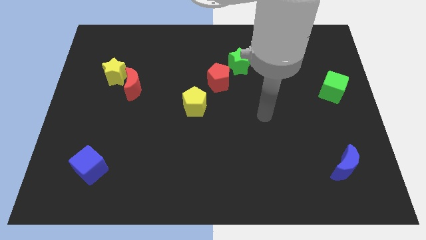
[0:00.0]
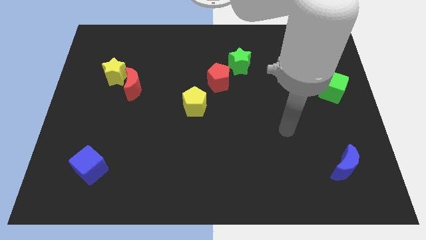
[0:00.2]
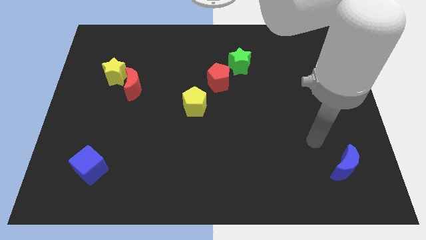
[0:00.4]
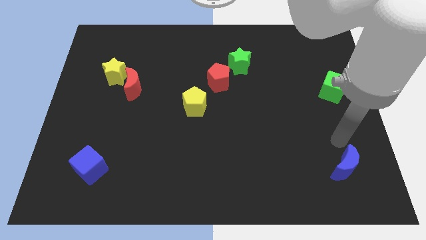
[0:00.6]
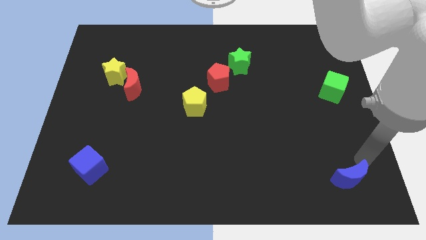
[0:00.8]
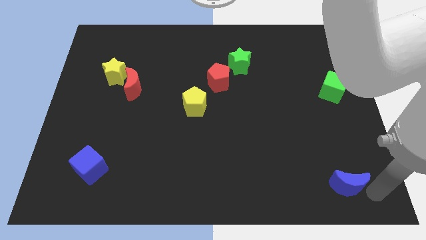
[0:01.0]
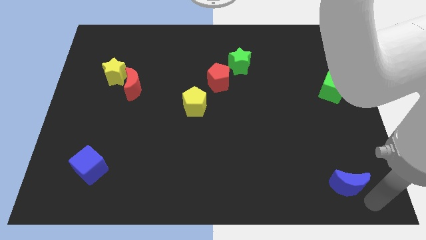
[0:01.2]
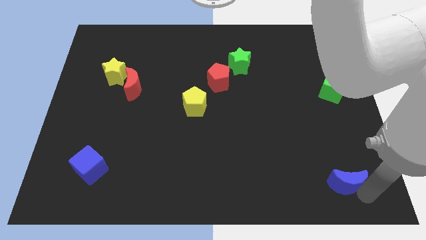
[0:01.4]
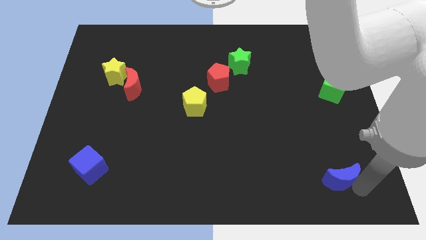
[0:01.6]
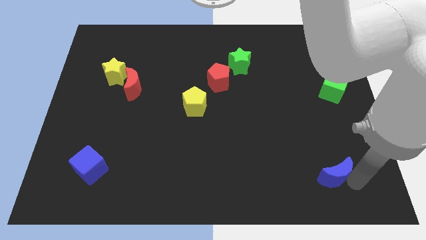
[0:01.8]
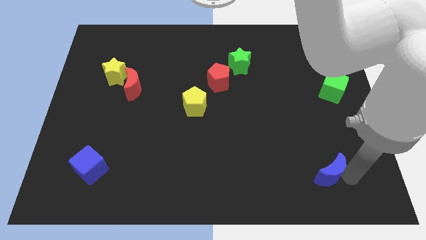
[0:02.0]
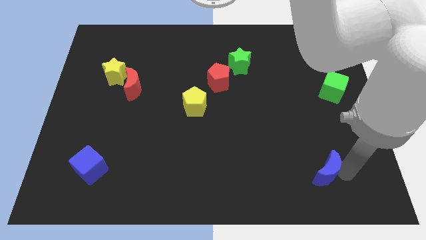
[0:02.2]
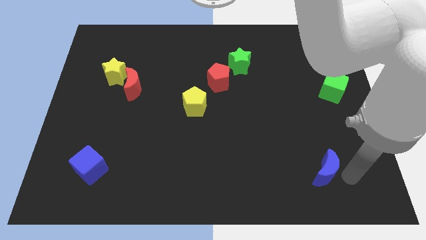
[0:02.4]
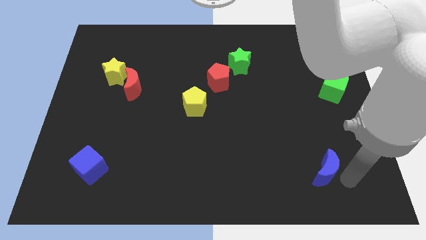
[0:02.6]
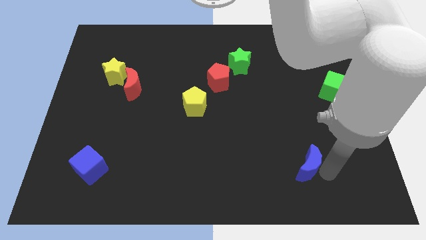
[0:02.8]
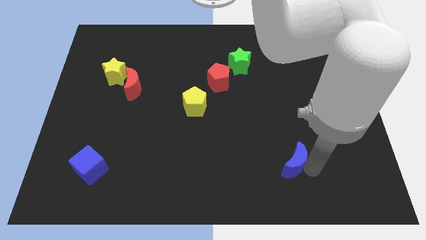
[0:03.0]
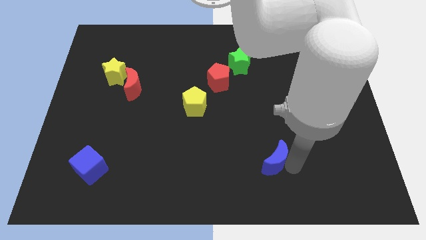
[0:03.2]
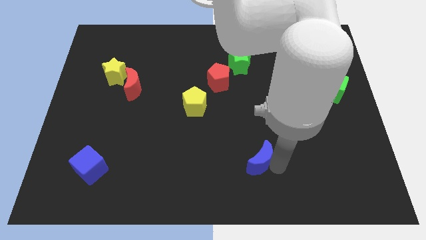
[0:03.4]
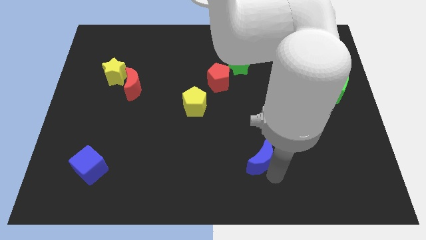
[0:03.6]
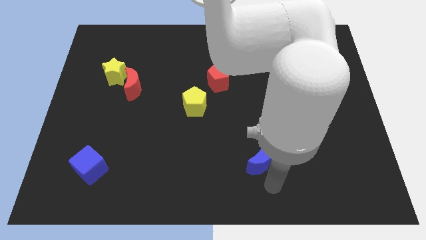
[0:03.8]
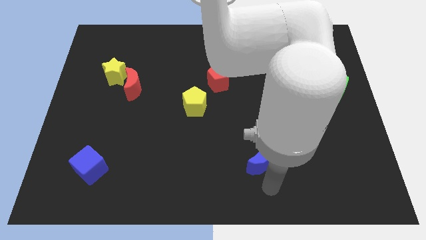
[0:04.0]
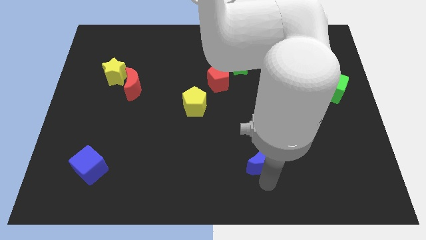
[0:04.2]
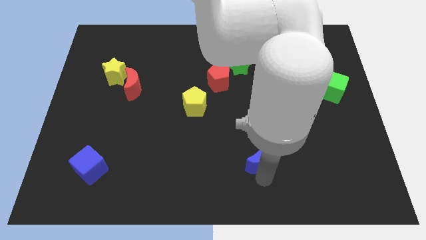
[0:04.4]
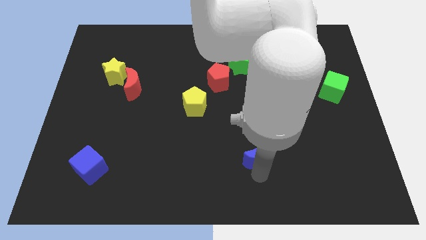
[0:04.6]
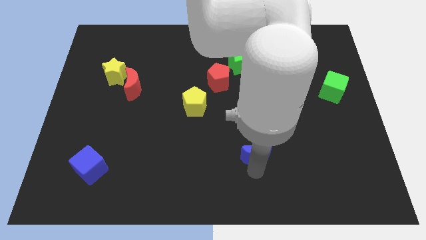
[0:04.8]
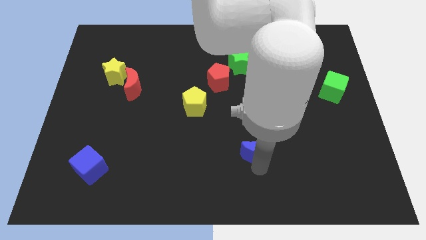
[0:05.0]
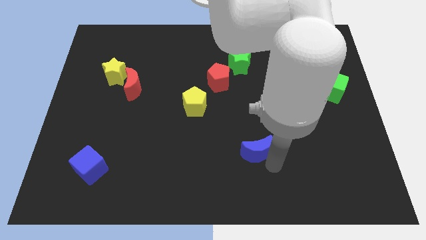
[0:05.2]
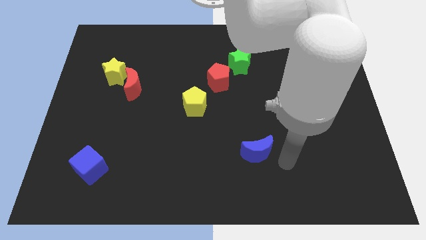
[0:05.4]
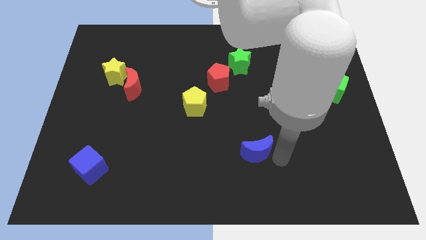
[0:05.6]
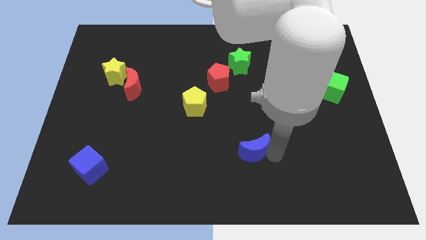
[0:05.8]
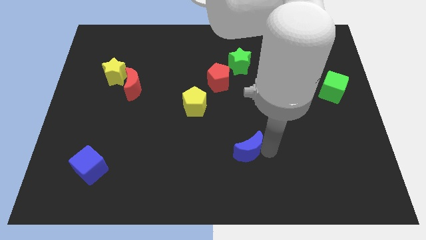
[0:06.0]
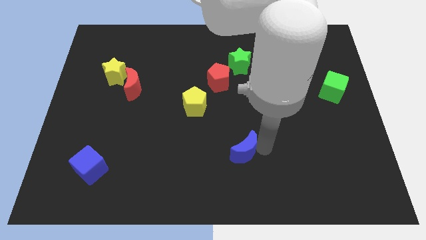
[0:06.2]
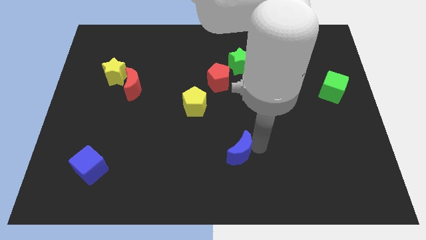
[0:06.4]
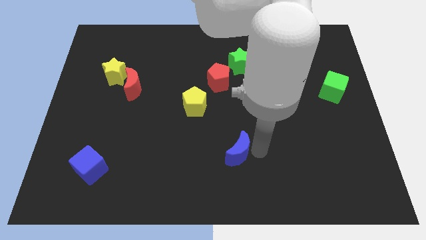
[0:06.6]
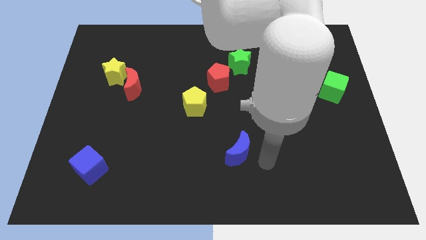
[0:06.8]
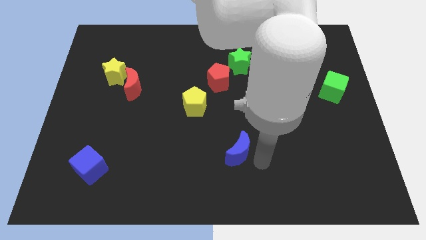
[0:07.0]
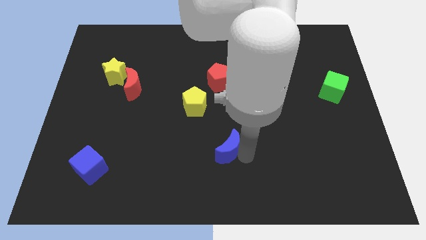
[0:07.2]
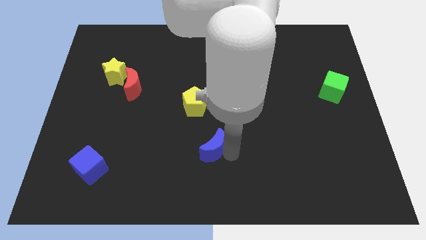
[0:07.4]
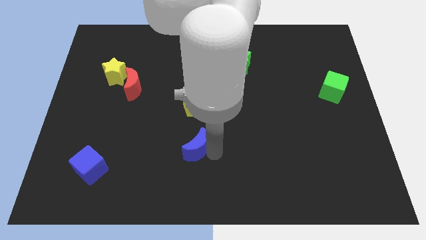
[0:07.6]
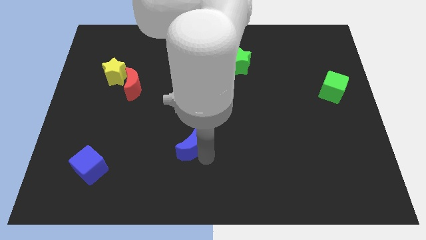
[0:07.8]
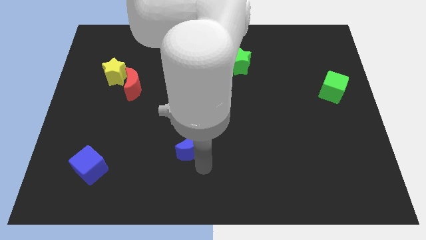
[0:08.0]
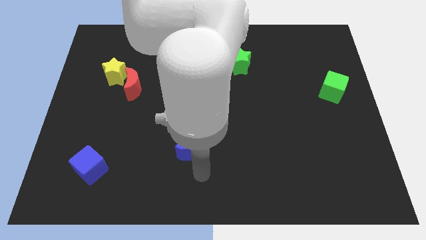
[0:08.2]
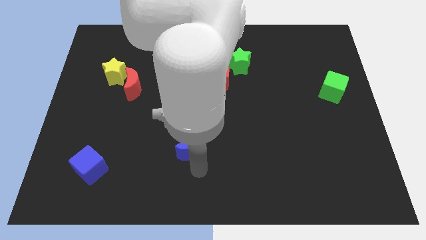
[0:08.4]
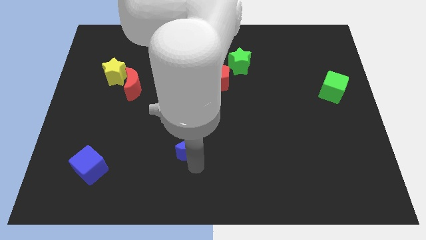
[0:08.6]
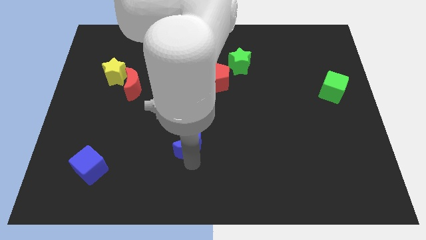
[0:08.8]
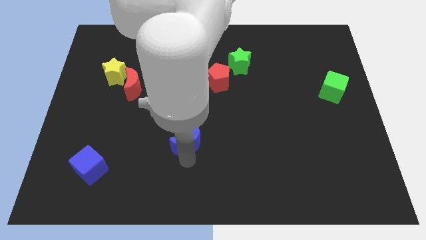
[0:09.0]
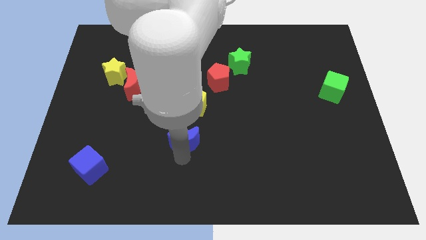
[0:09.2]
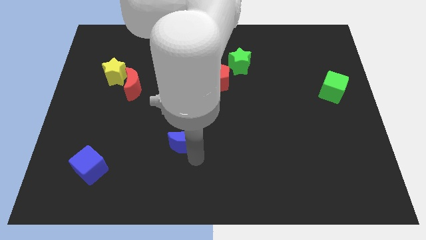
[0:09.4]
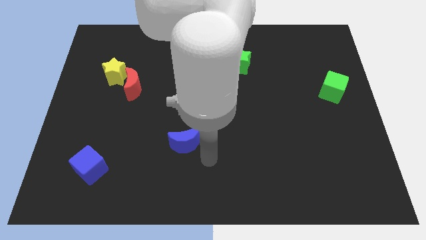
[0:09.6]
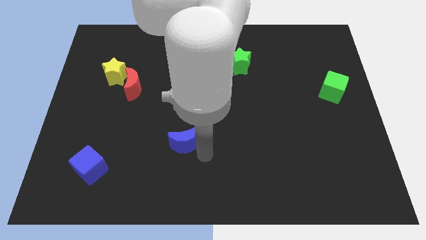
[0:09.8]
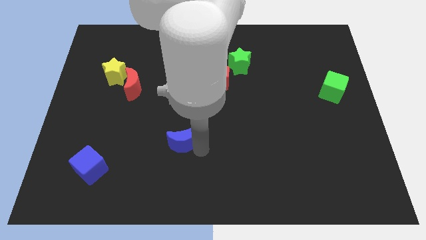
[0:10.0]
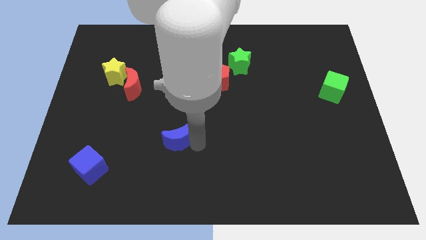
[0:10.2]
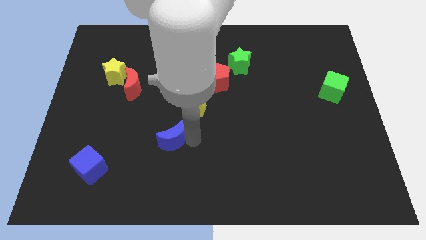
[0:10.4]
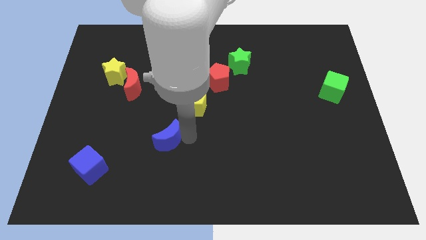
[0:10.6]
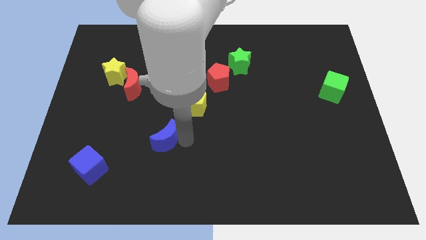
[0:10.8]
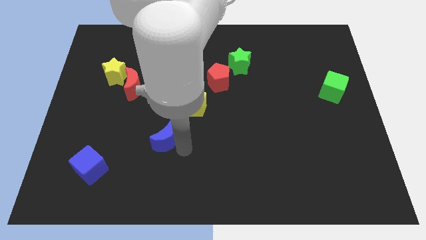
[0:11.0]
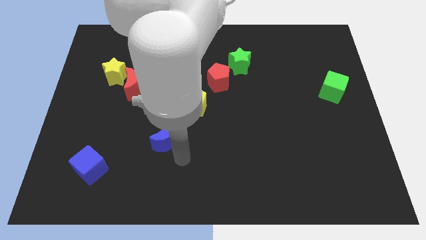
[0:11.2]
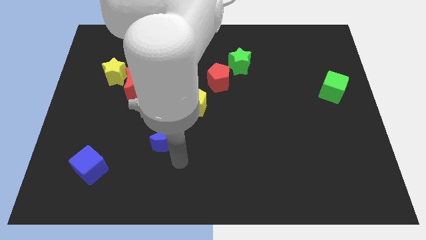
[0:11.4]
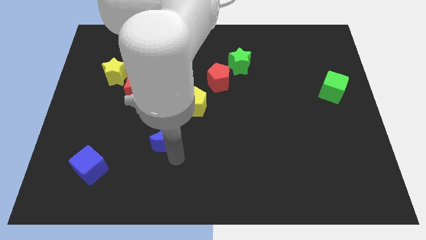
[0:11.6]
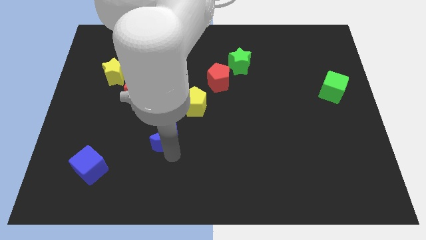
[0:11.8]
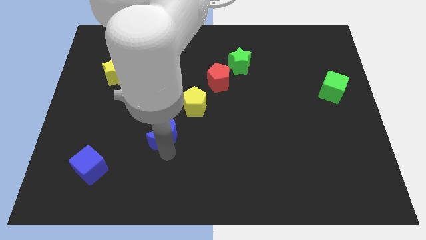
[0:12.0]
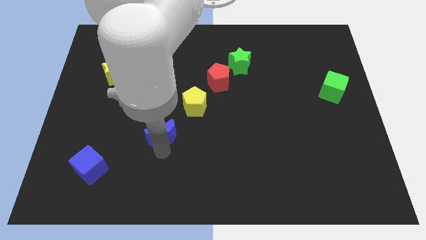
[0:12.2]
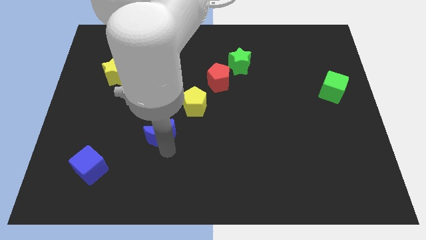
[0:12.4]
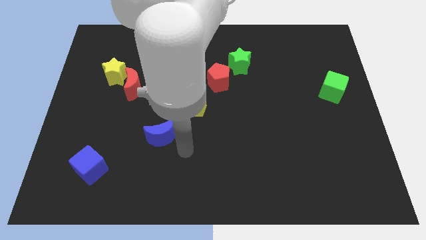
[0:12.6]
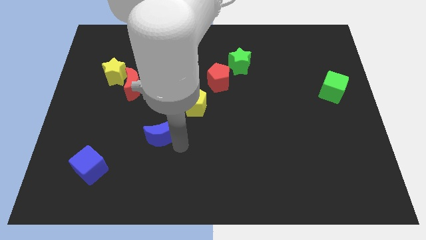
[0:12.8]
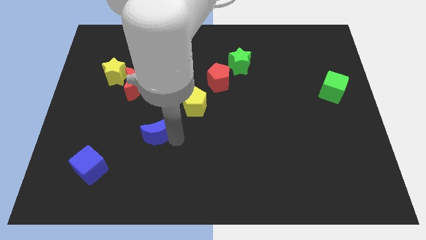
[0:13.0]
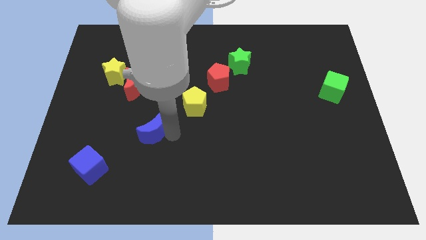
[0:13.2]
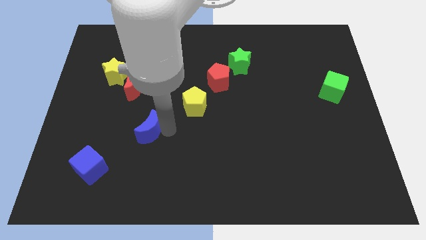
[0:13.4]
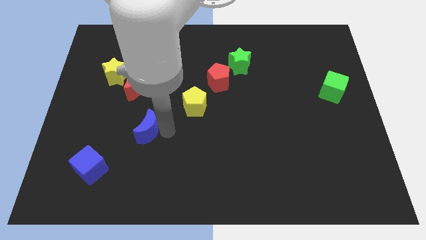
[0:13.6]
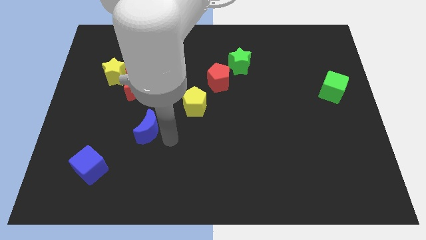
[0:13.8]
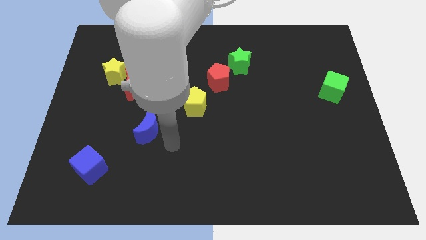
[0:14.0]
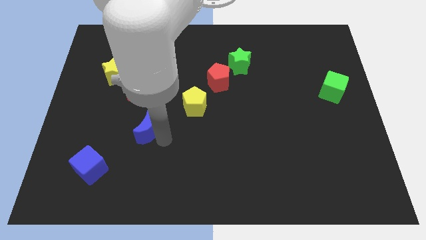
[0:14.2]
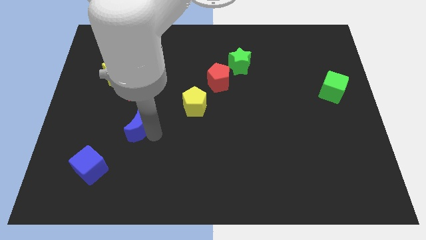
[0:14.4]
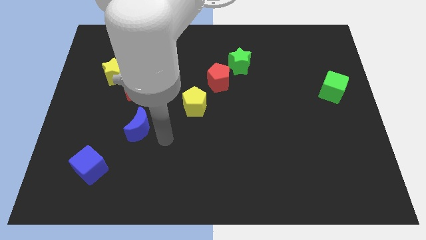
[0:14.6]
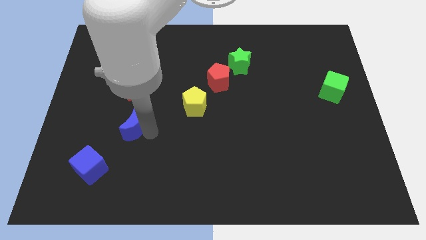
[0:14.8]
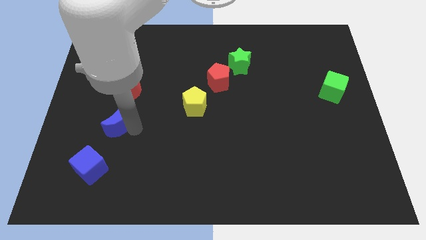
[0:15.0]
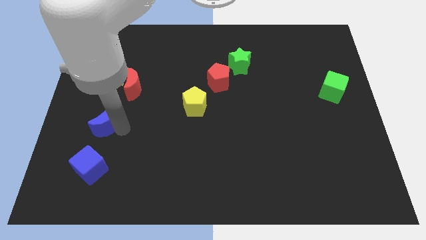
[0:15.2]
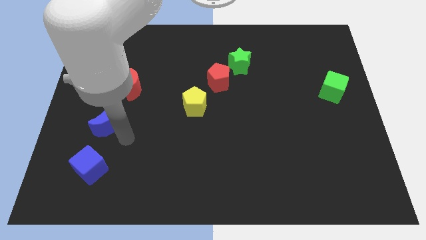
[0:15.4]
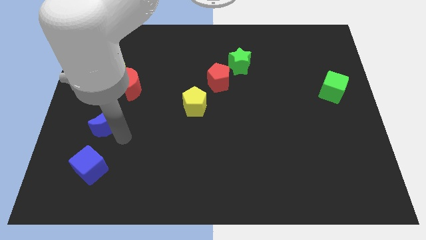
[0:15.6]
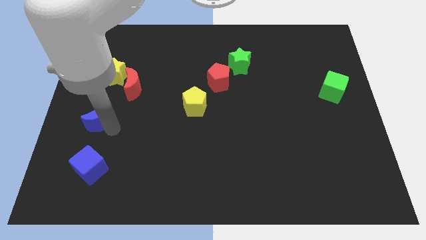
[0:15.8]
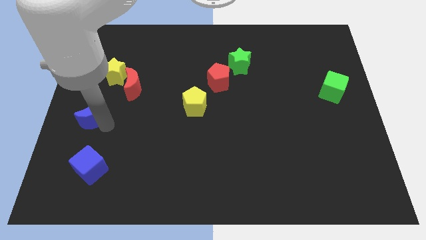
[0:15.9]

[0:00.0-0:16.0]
push the blue moon to the left side of the board
